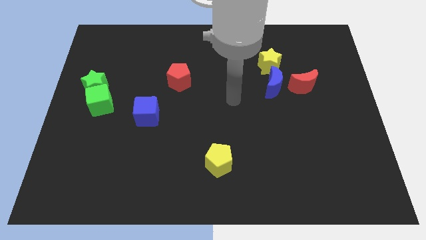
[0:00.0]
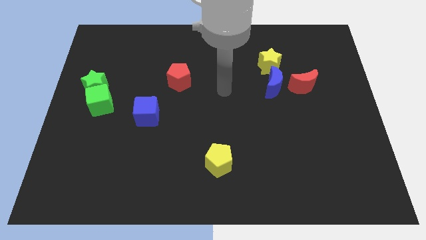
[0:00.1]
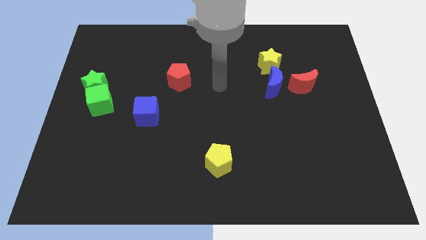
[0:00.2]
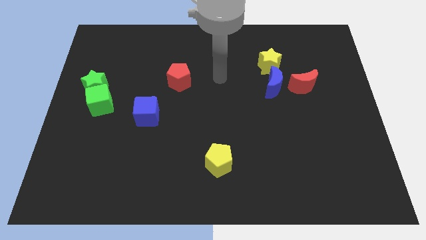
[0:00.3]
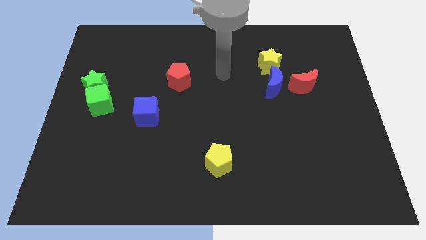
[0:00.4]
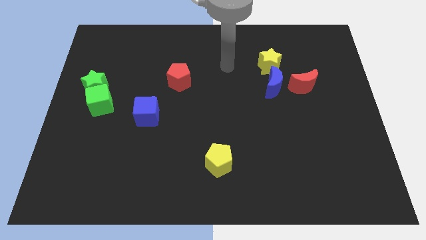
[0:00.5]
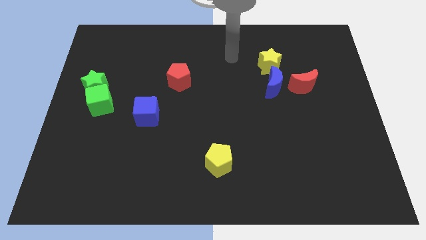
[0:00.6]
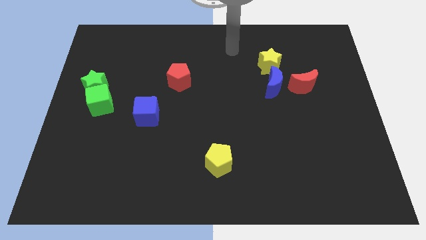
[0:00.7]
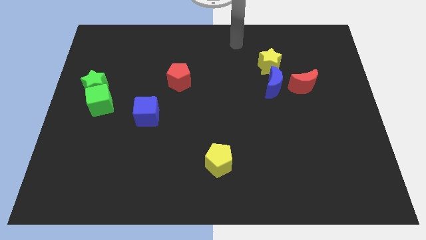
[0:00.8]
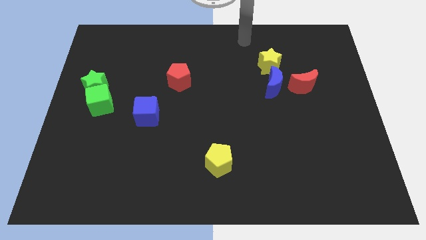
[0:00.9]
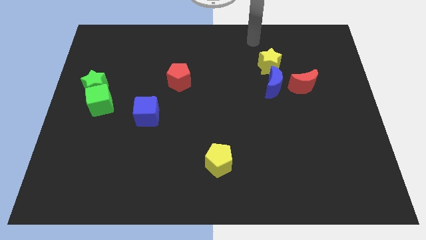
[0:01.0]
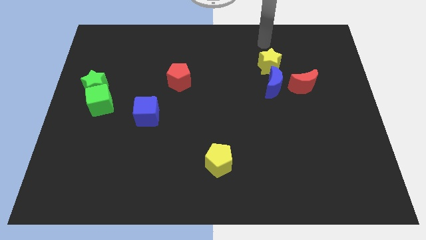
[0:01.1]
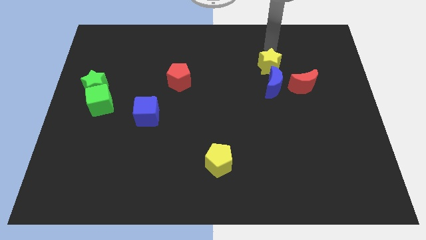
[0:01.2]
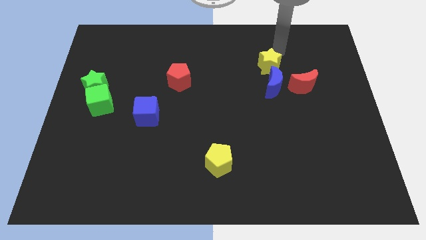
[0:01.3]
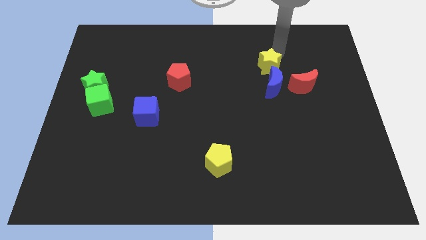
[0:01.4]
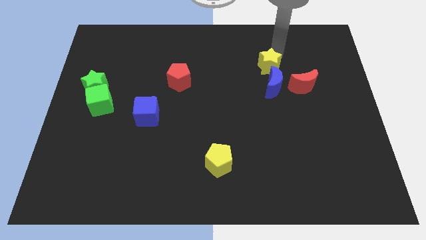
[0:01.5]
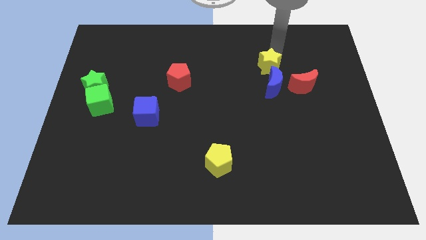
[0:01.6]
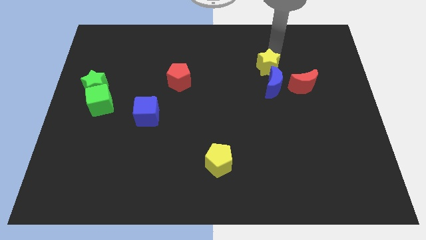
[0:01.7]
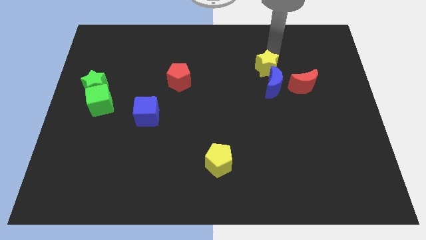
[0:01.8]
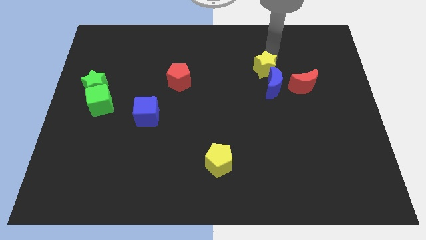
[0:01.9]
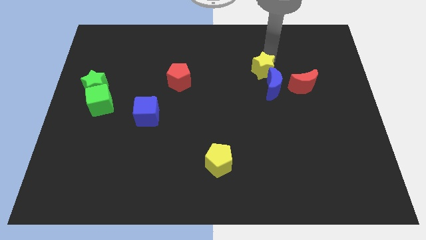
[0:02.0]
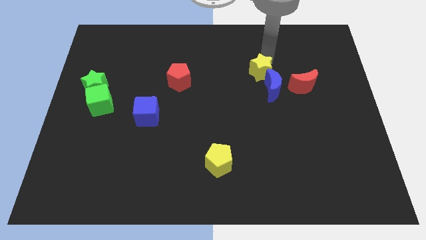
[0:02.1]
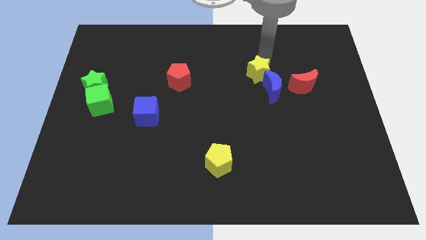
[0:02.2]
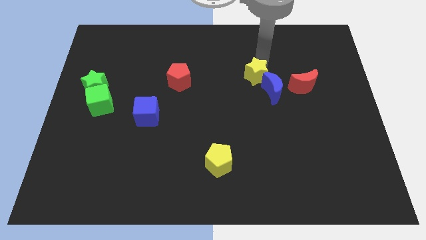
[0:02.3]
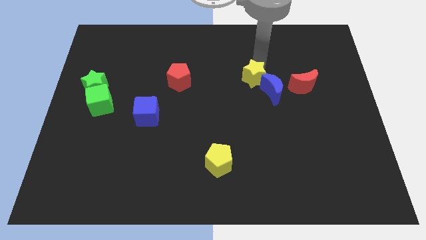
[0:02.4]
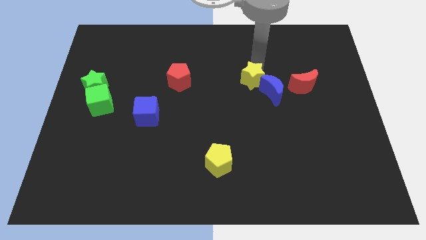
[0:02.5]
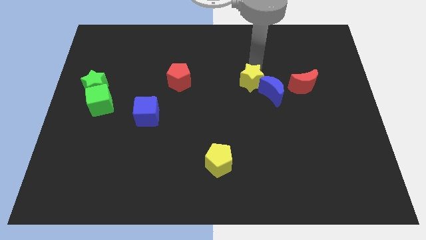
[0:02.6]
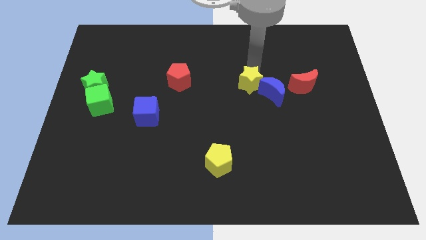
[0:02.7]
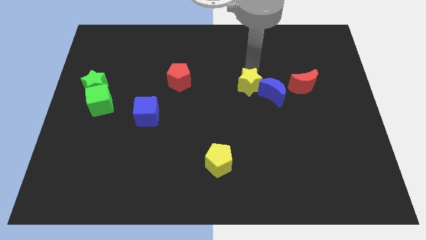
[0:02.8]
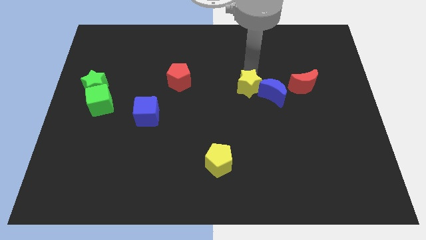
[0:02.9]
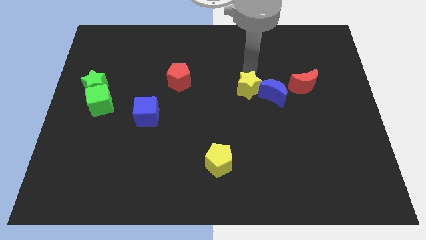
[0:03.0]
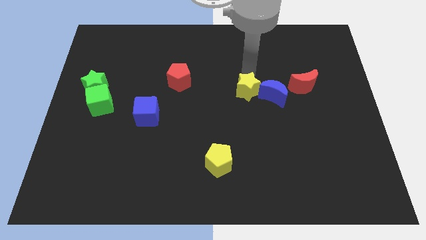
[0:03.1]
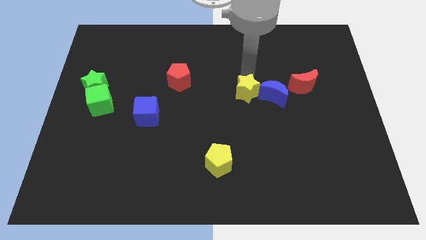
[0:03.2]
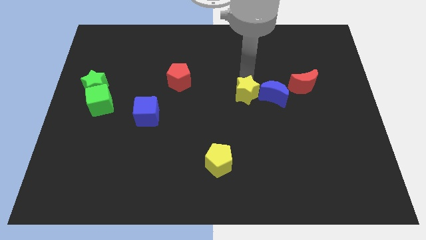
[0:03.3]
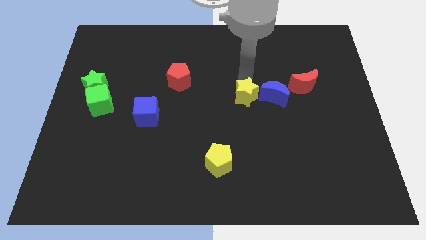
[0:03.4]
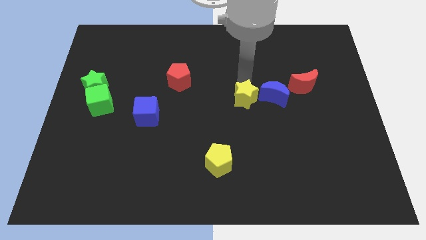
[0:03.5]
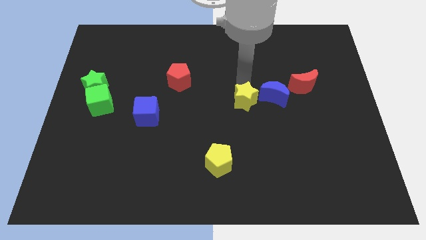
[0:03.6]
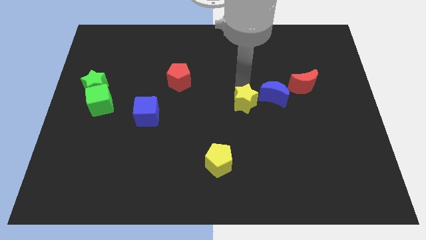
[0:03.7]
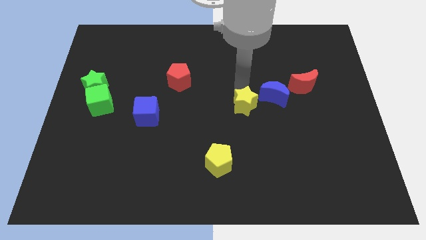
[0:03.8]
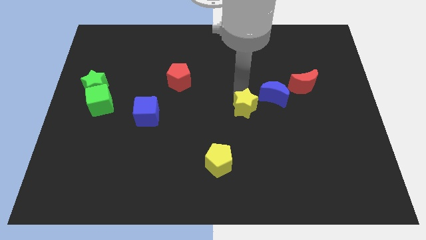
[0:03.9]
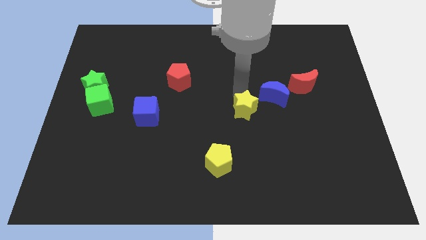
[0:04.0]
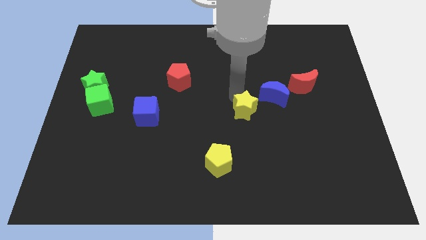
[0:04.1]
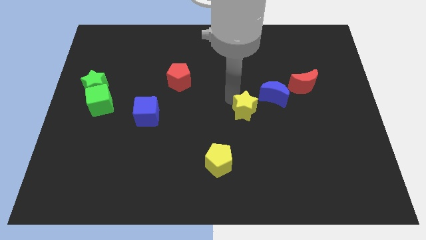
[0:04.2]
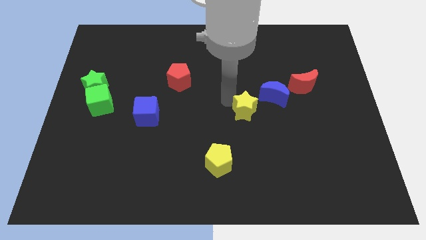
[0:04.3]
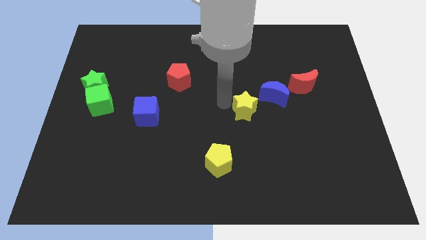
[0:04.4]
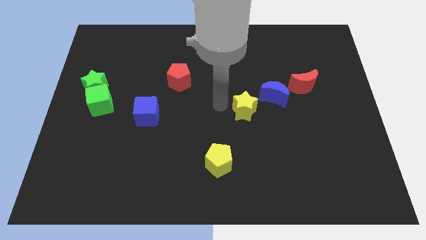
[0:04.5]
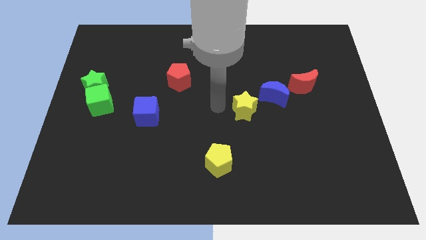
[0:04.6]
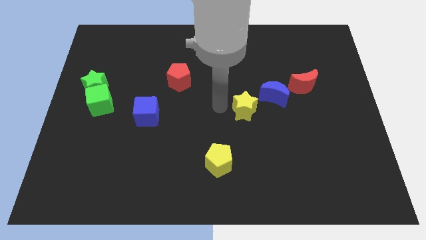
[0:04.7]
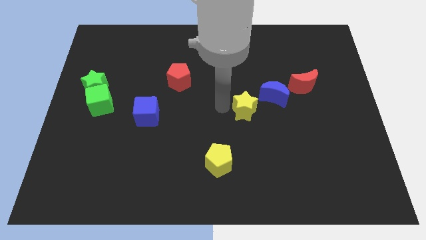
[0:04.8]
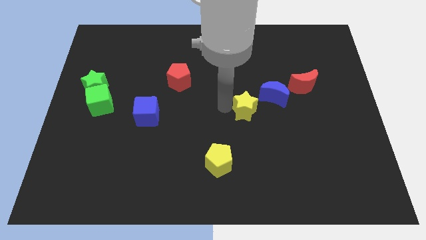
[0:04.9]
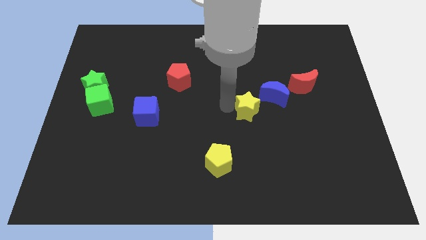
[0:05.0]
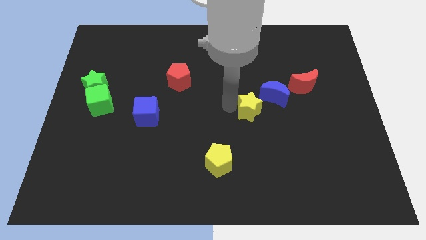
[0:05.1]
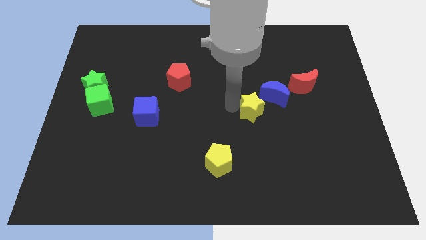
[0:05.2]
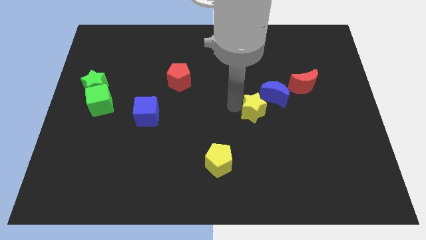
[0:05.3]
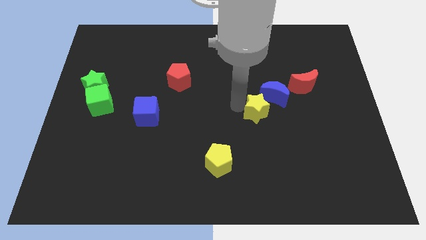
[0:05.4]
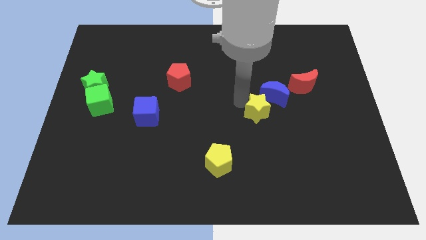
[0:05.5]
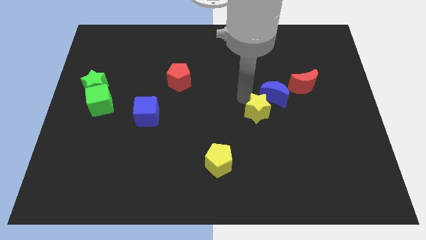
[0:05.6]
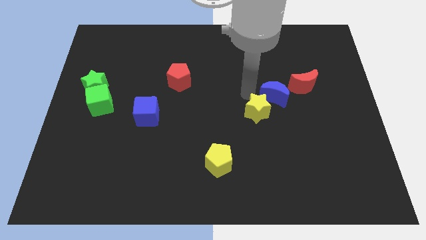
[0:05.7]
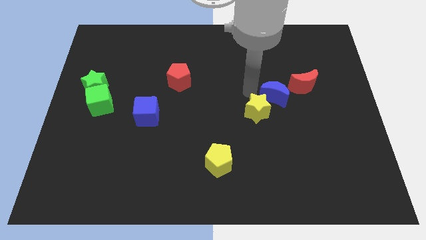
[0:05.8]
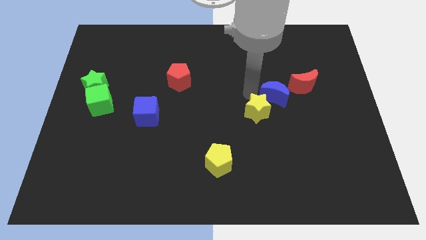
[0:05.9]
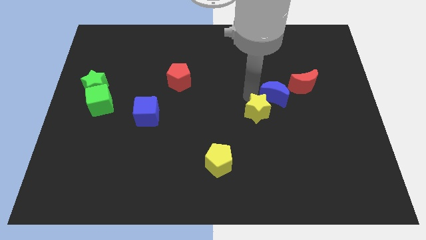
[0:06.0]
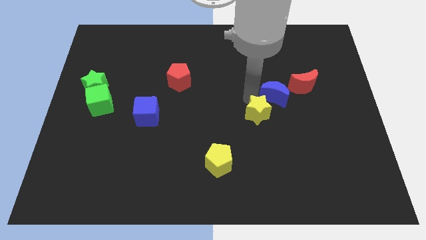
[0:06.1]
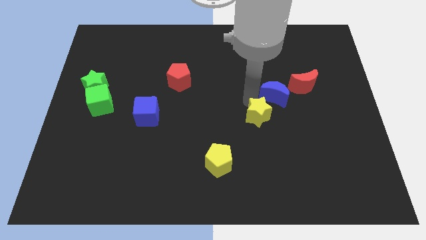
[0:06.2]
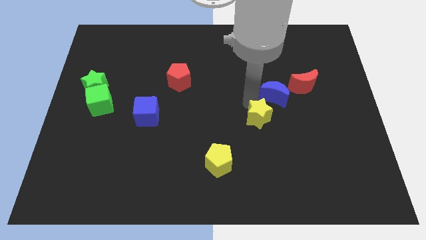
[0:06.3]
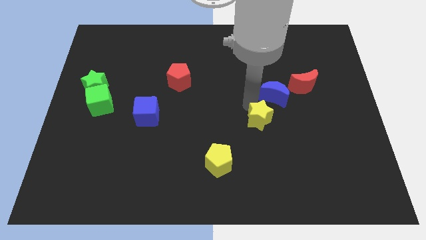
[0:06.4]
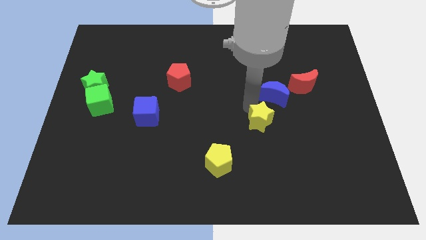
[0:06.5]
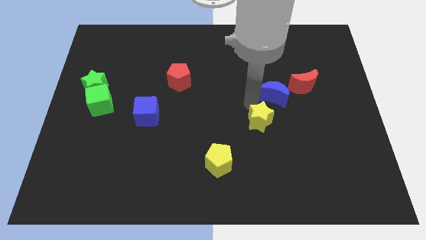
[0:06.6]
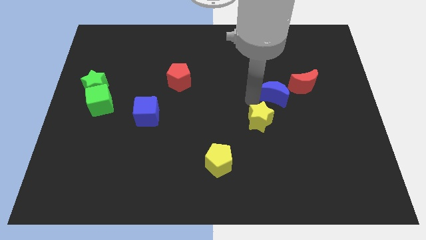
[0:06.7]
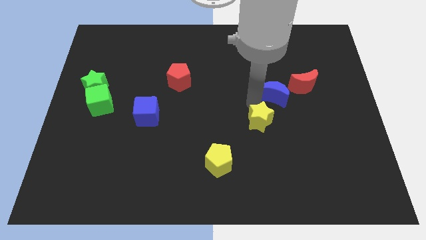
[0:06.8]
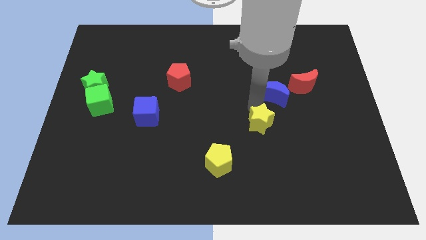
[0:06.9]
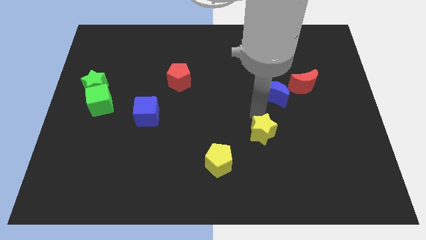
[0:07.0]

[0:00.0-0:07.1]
push the yellow star downwards
